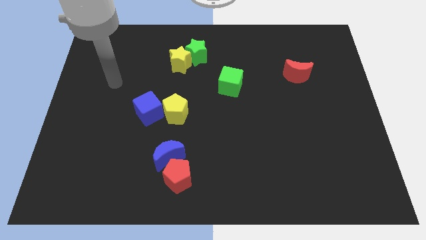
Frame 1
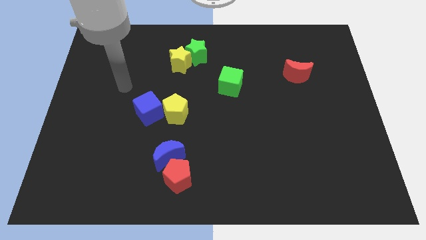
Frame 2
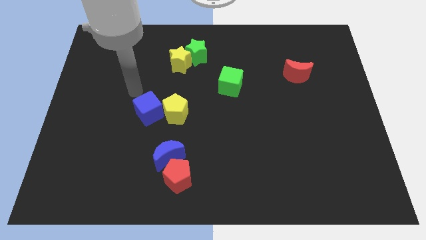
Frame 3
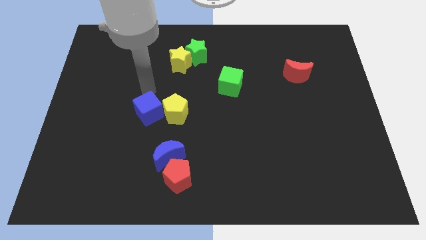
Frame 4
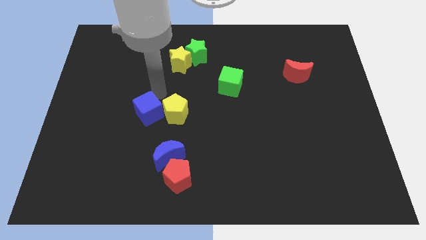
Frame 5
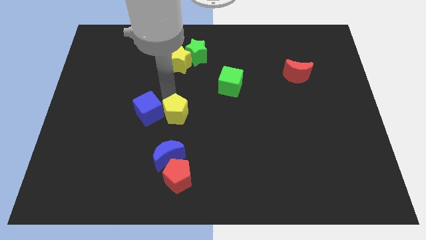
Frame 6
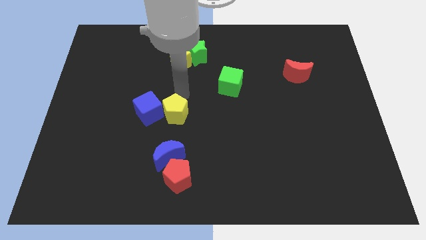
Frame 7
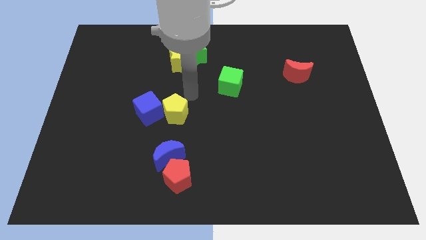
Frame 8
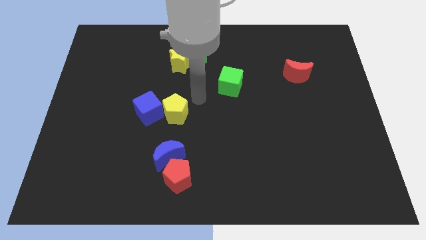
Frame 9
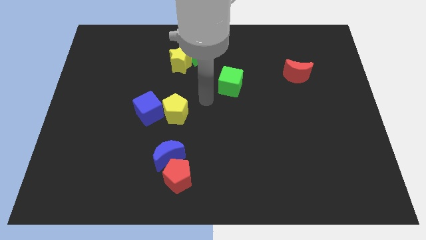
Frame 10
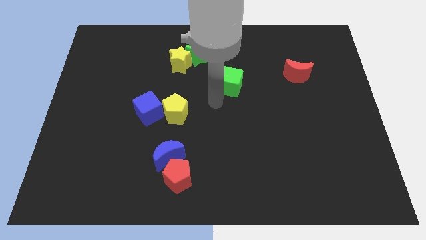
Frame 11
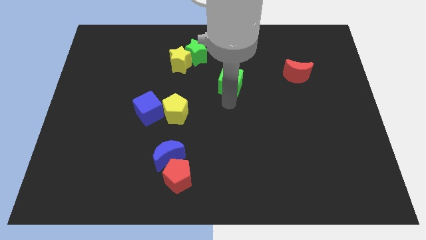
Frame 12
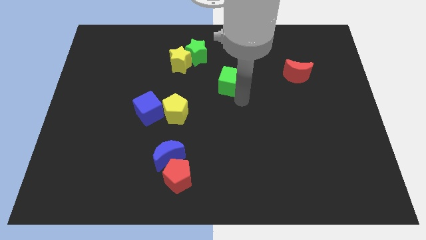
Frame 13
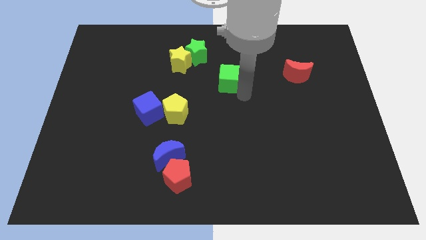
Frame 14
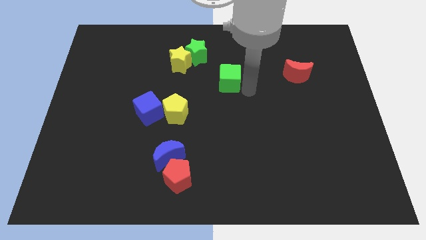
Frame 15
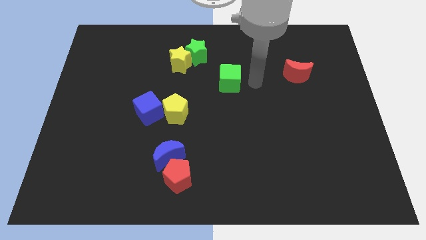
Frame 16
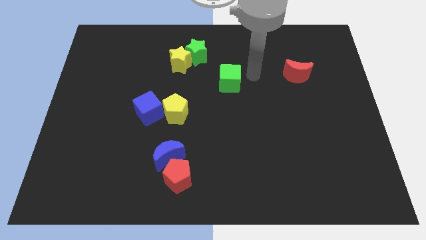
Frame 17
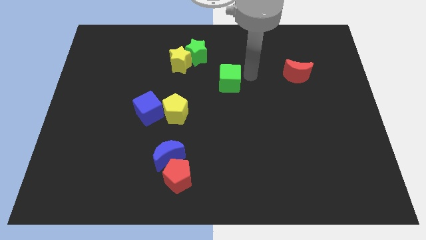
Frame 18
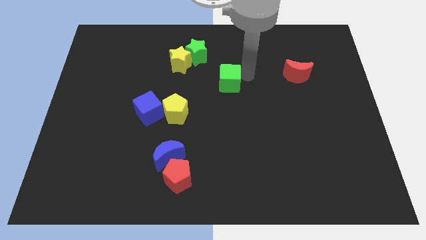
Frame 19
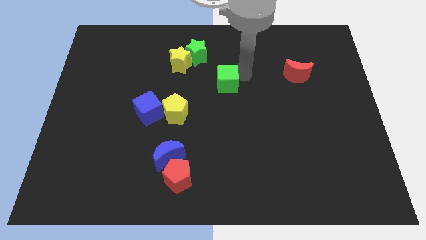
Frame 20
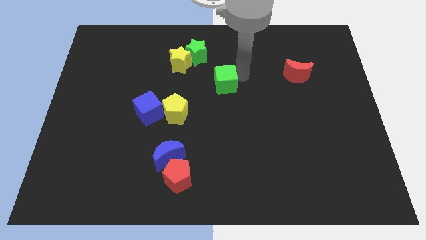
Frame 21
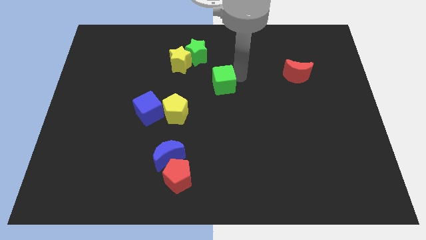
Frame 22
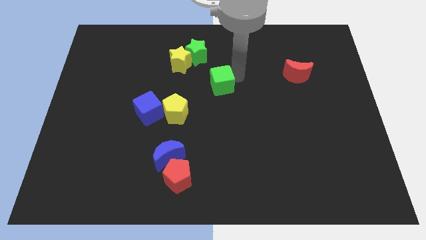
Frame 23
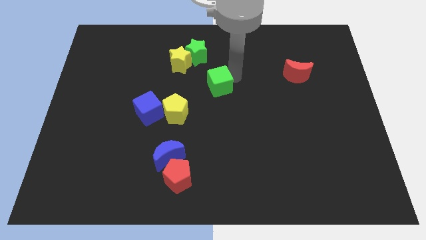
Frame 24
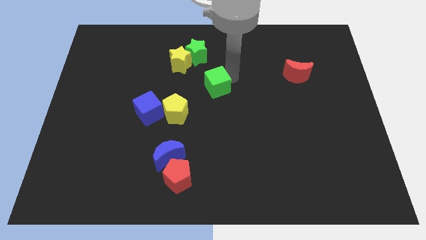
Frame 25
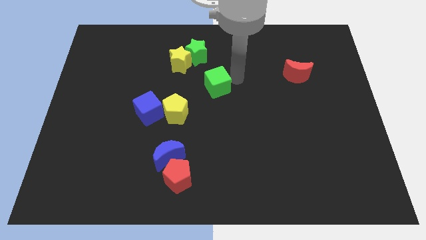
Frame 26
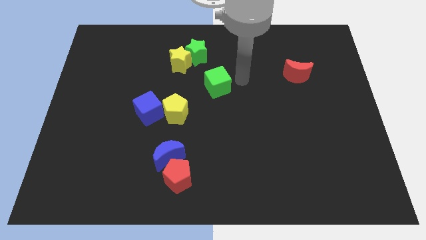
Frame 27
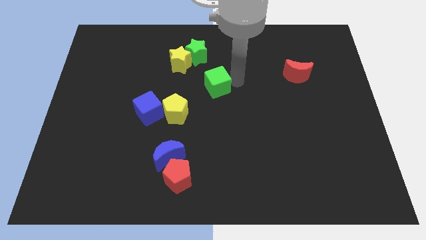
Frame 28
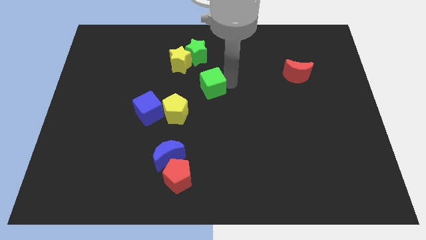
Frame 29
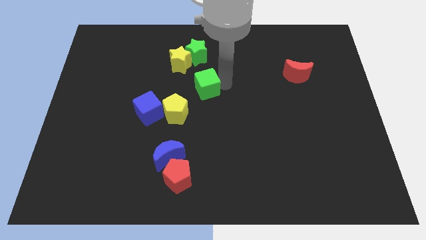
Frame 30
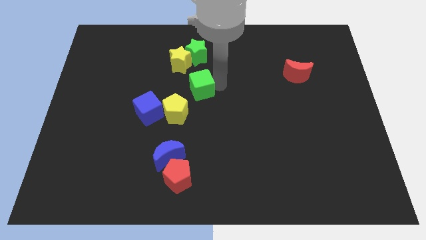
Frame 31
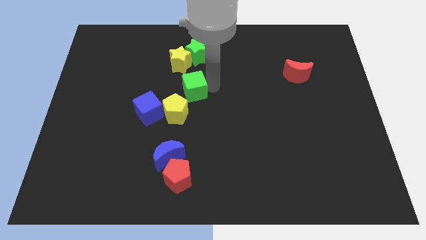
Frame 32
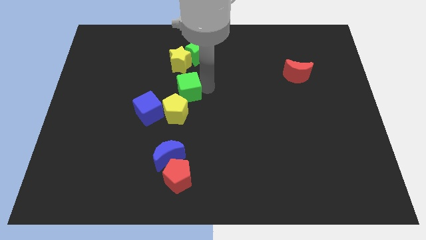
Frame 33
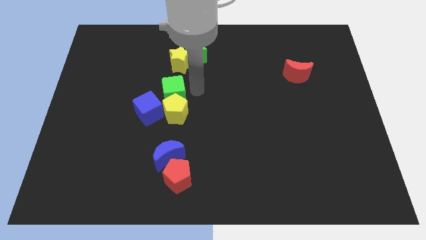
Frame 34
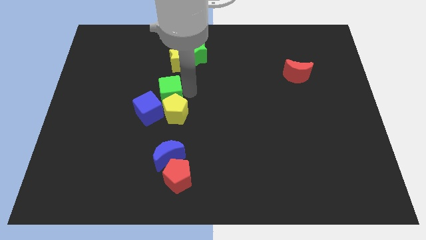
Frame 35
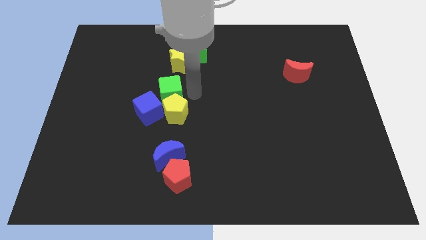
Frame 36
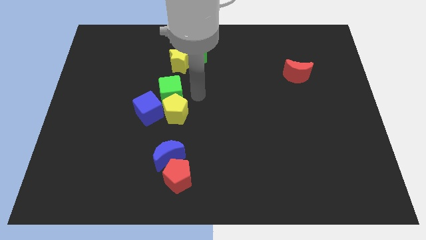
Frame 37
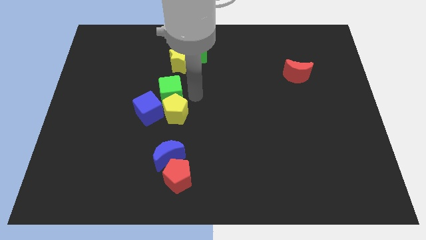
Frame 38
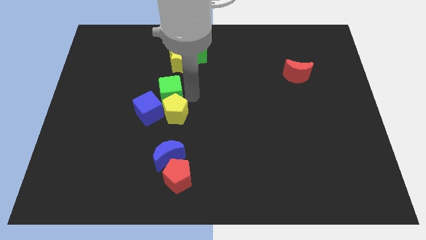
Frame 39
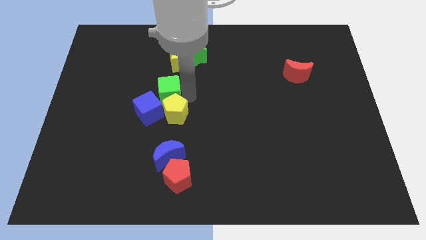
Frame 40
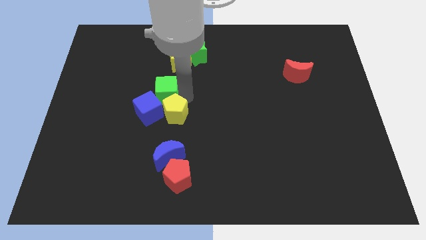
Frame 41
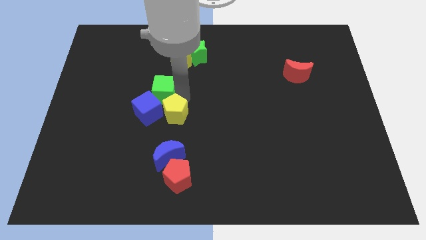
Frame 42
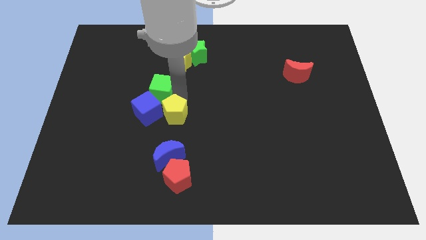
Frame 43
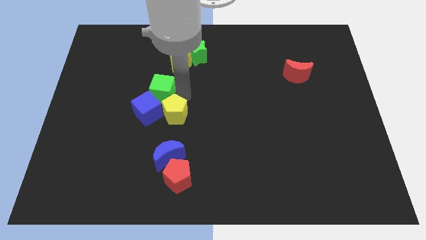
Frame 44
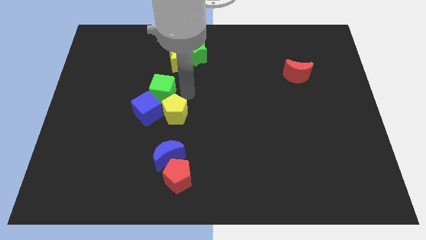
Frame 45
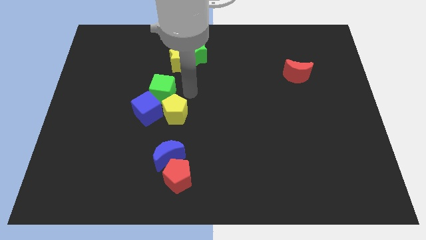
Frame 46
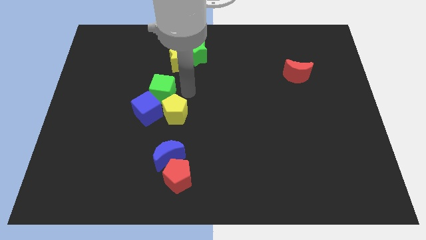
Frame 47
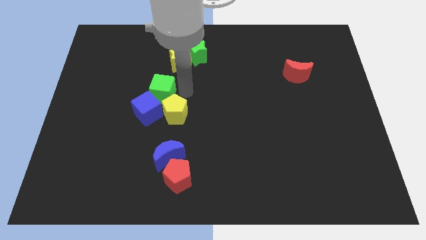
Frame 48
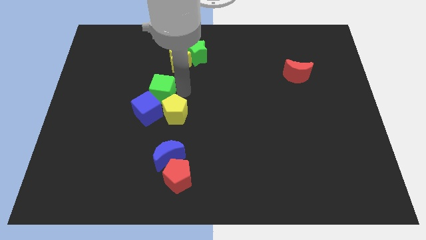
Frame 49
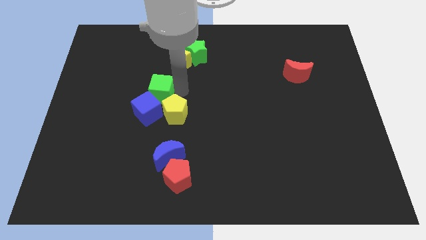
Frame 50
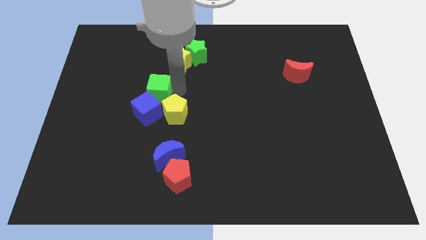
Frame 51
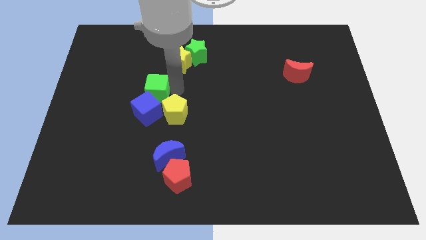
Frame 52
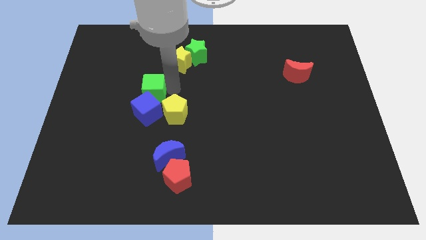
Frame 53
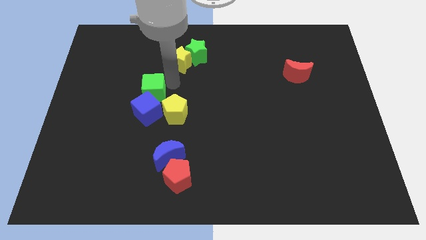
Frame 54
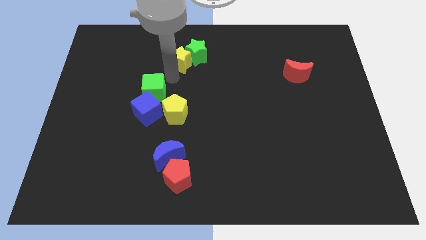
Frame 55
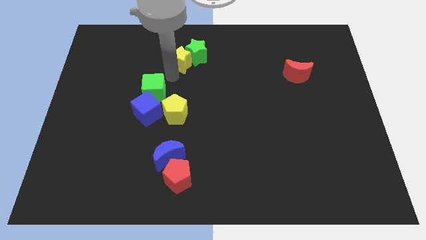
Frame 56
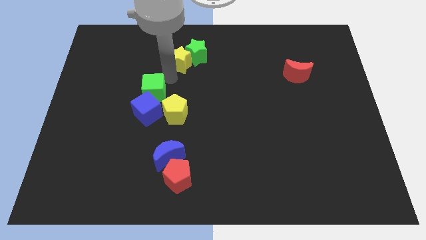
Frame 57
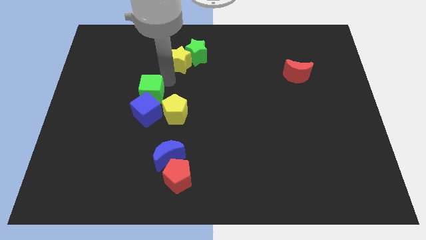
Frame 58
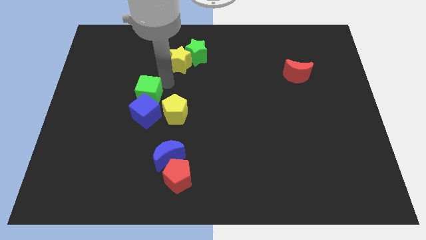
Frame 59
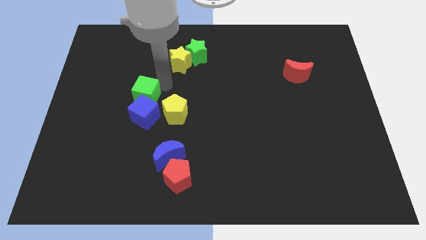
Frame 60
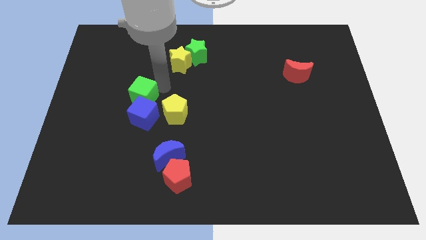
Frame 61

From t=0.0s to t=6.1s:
move the green cube to the left side of the yellow pentagon

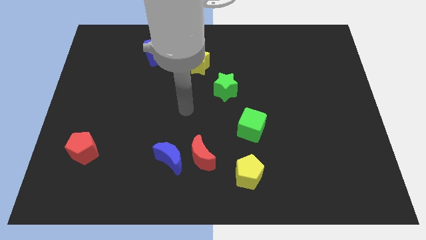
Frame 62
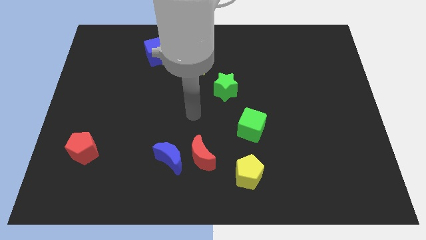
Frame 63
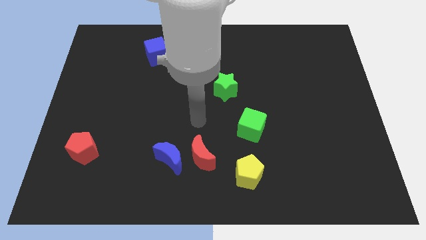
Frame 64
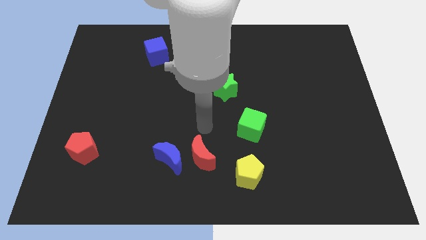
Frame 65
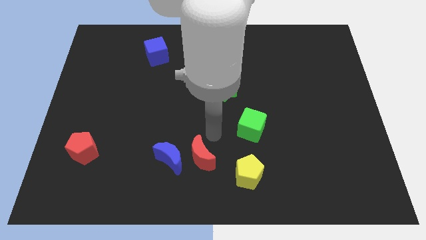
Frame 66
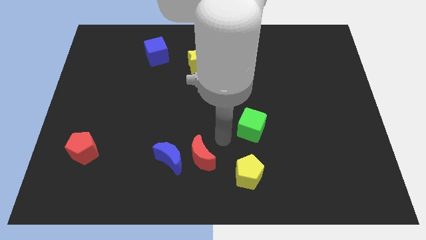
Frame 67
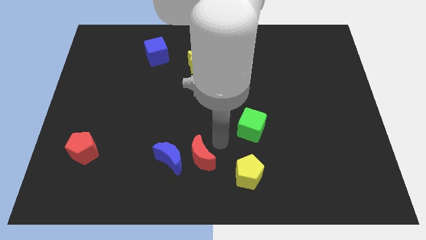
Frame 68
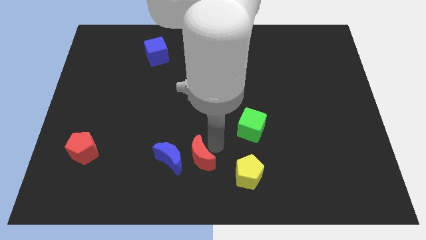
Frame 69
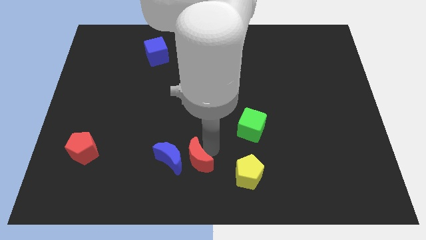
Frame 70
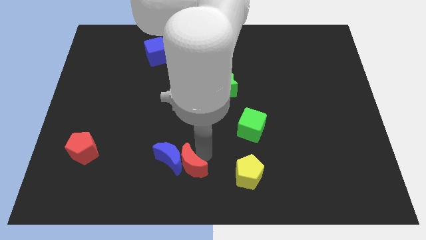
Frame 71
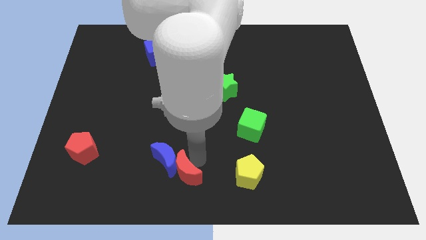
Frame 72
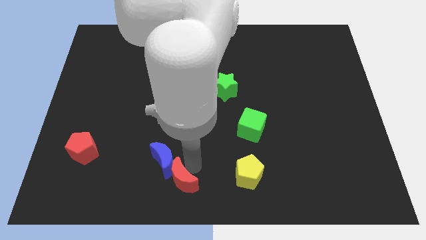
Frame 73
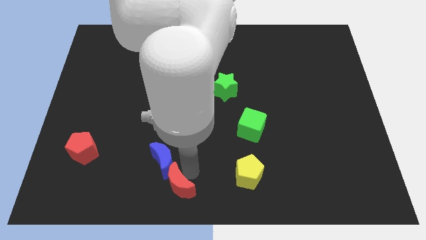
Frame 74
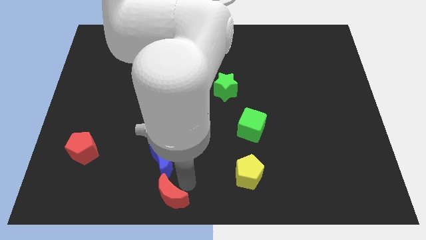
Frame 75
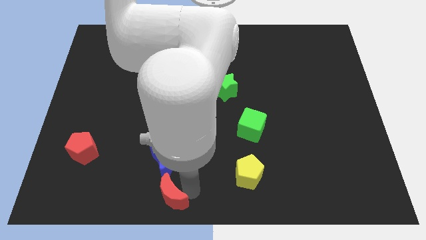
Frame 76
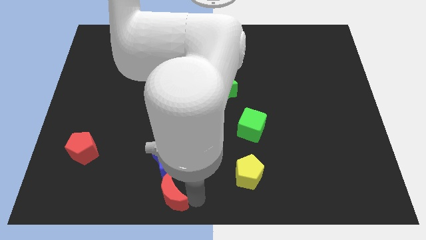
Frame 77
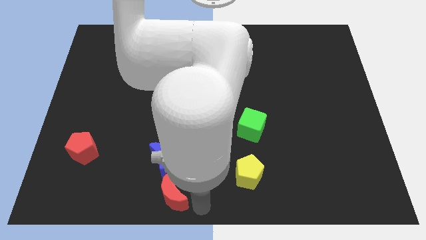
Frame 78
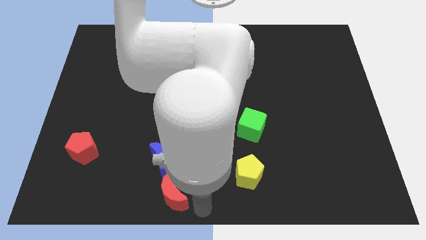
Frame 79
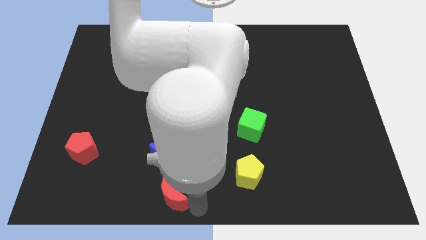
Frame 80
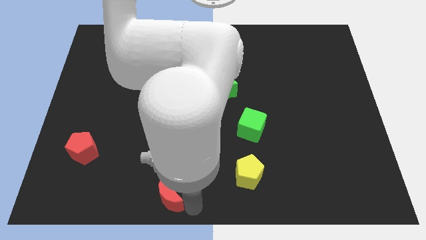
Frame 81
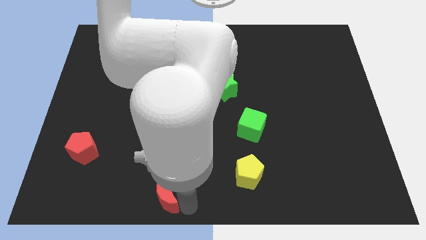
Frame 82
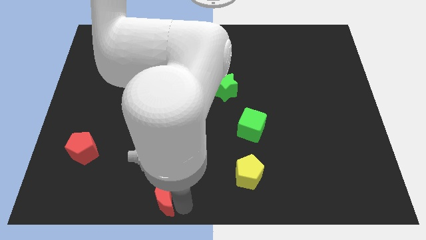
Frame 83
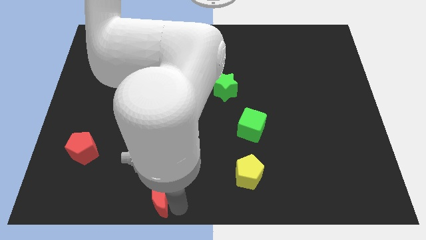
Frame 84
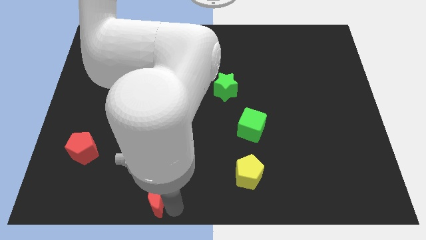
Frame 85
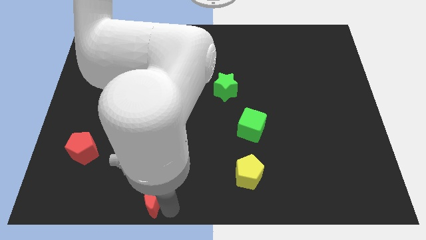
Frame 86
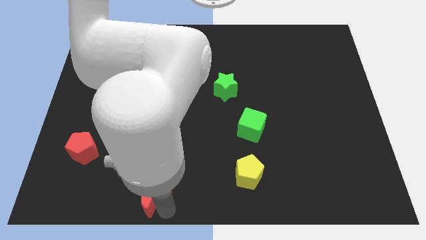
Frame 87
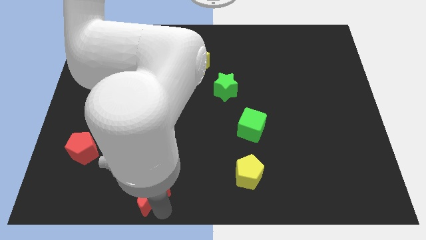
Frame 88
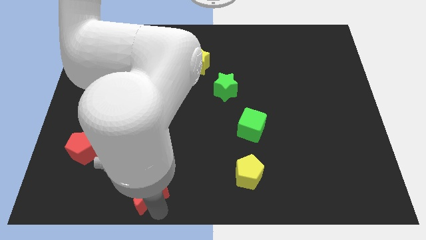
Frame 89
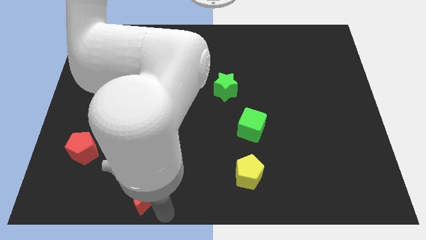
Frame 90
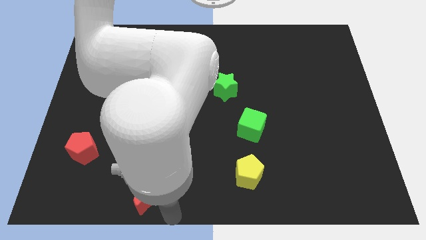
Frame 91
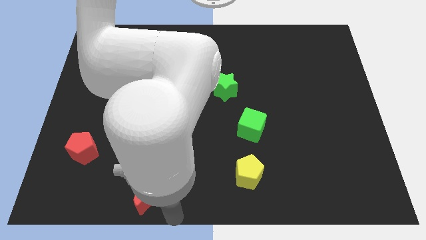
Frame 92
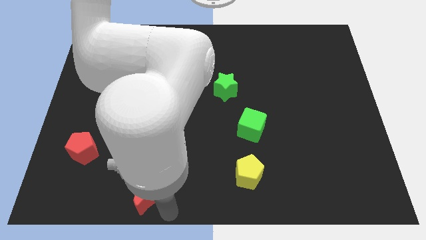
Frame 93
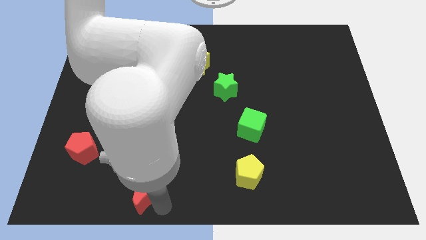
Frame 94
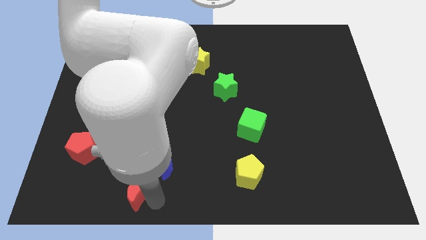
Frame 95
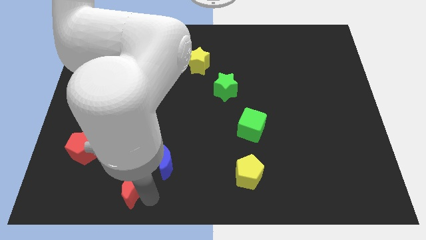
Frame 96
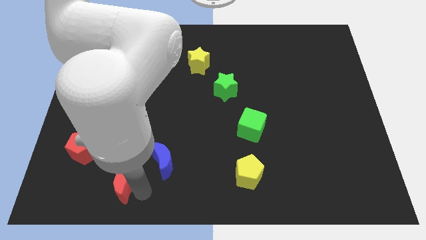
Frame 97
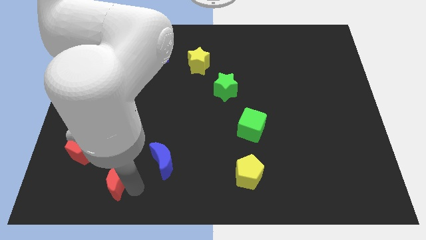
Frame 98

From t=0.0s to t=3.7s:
push the red moon diagonally down and to the right of the red pentagon
